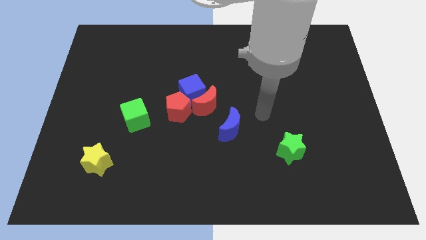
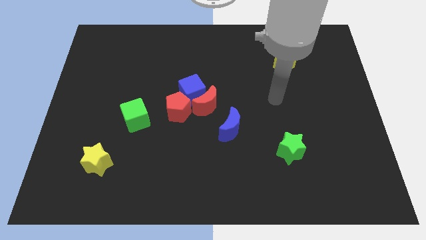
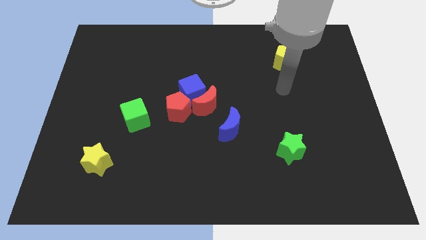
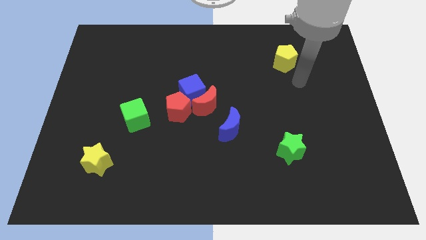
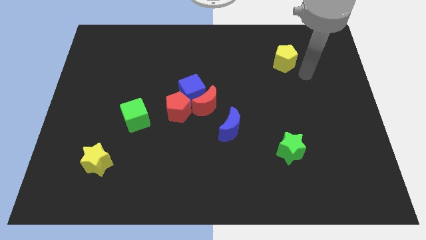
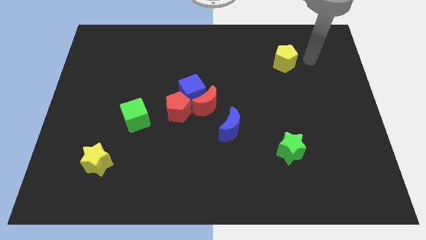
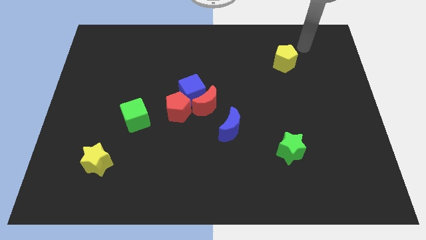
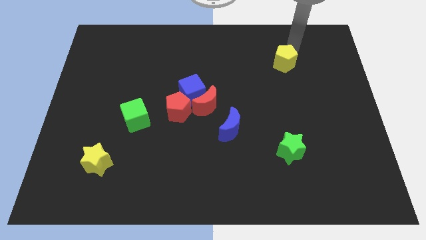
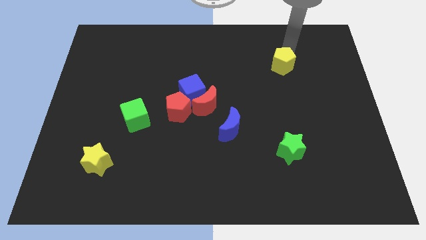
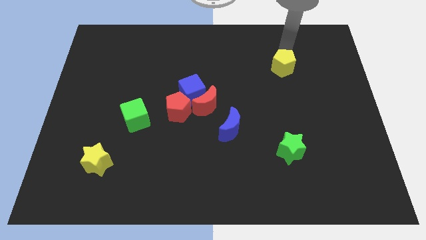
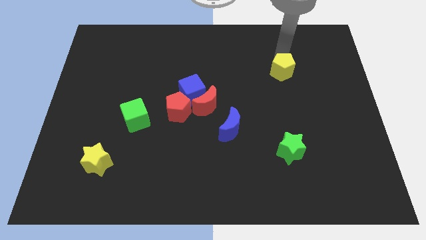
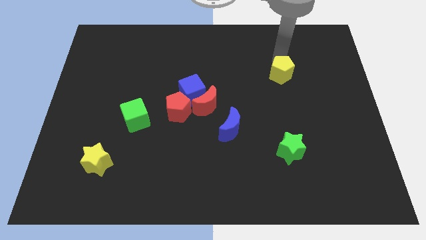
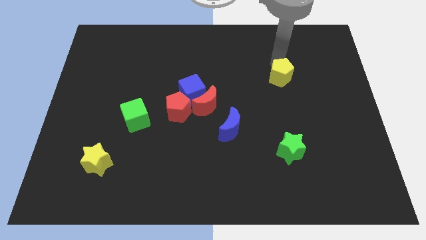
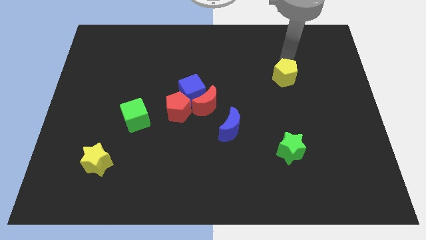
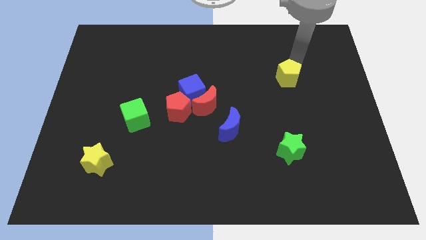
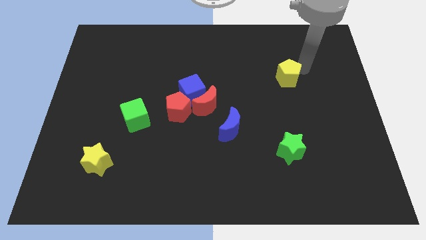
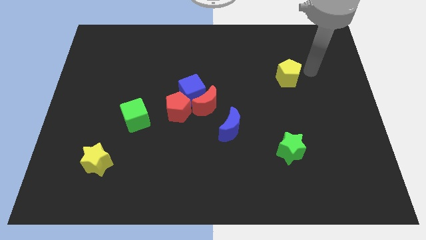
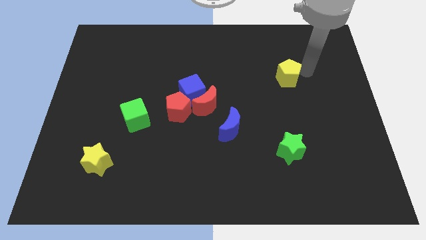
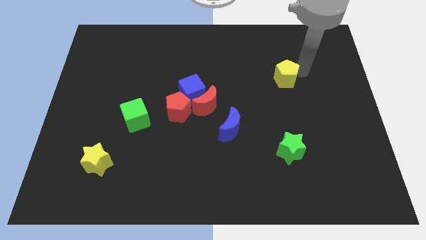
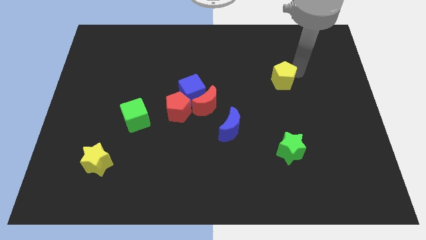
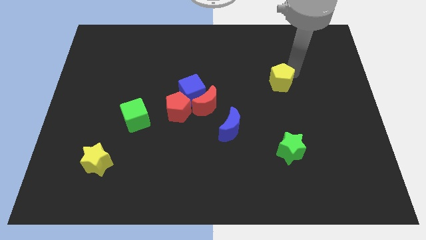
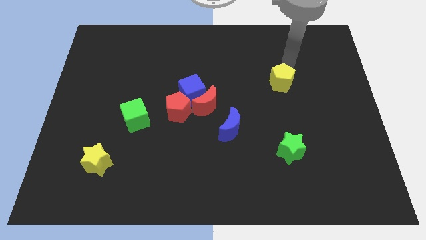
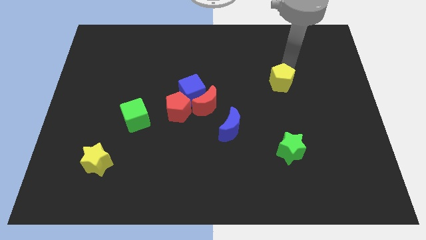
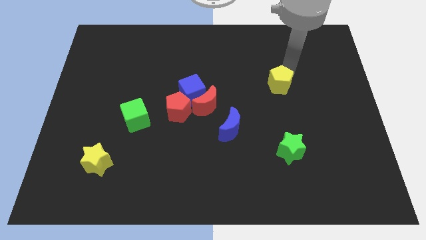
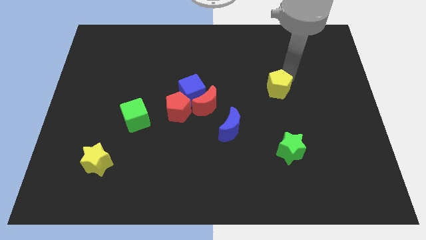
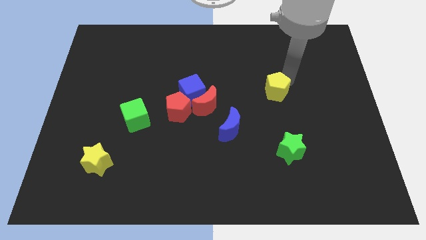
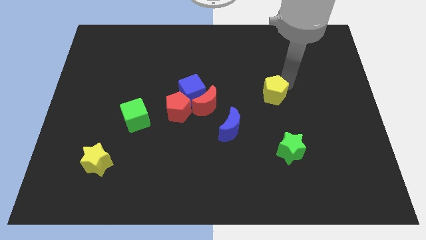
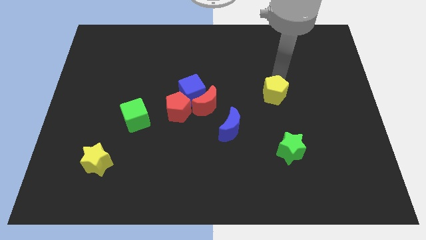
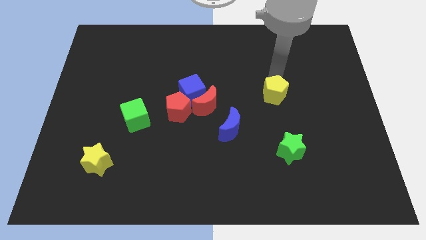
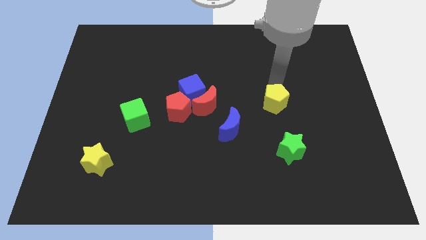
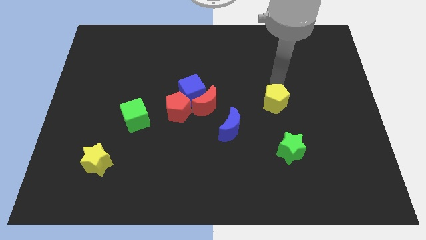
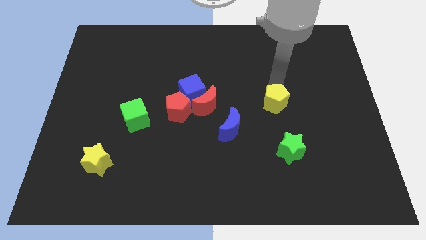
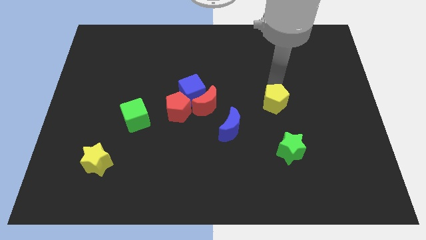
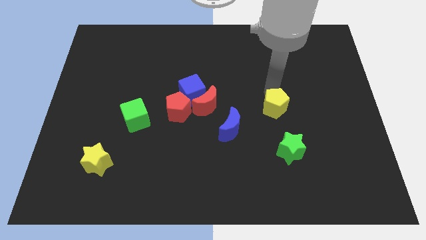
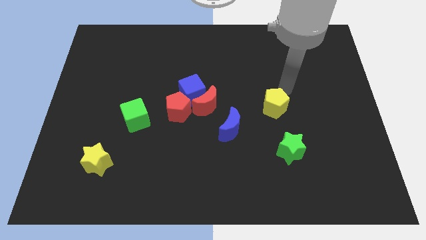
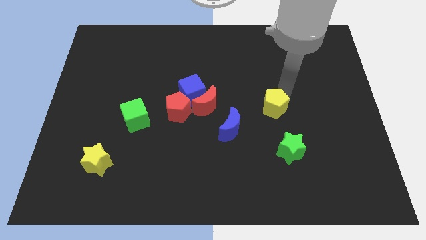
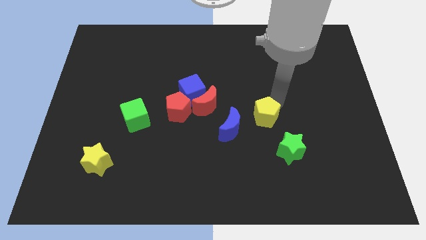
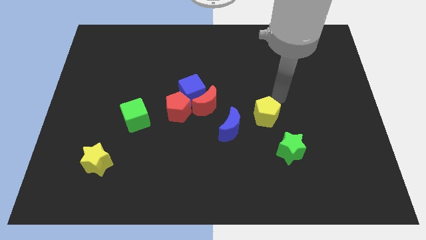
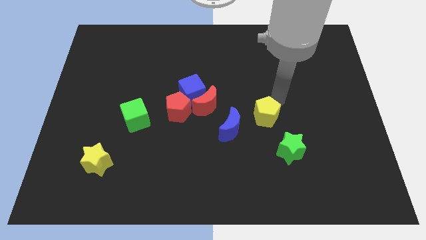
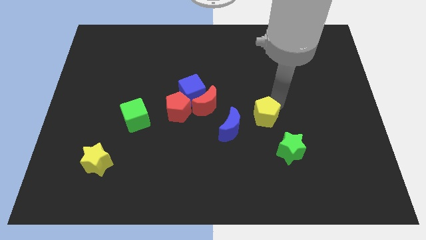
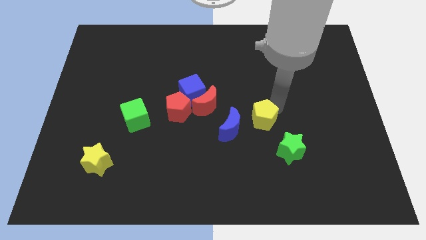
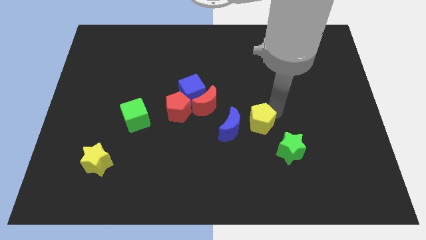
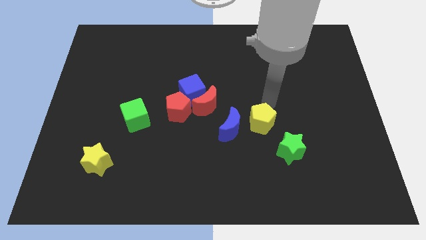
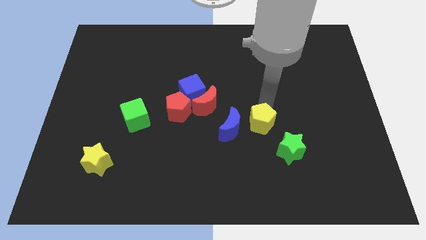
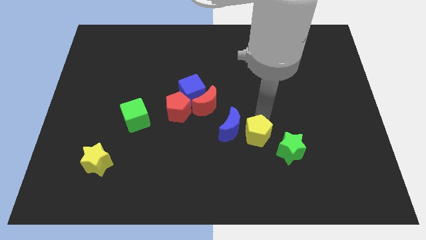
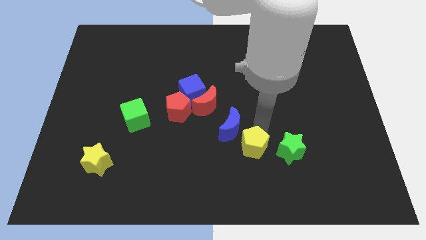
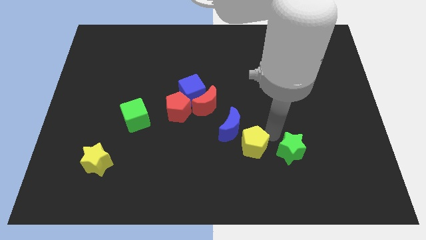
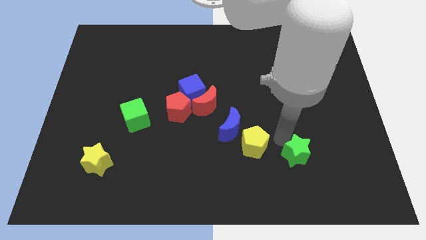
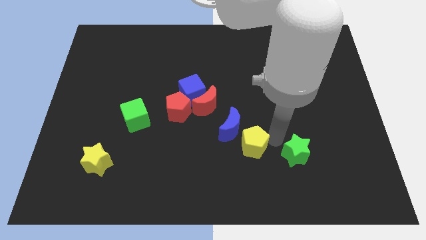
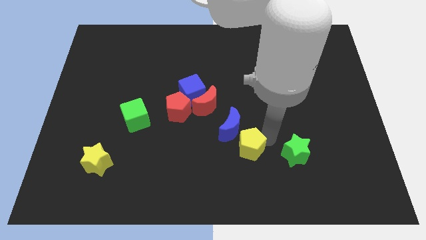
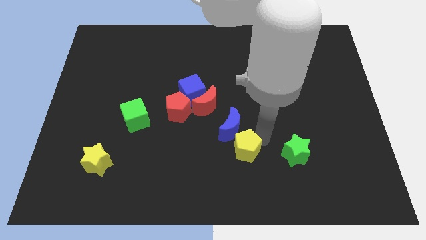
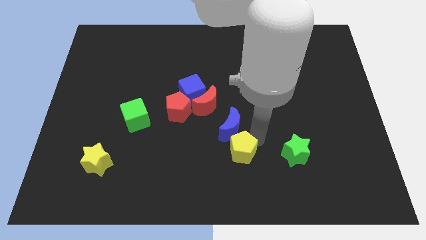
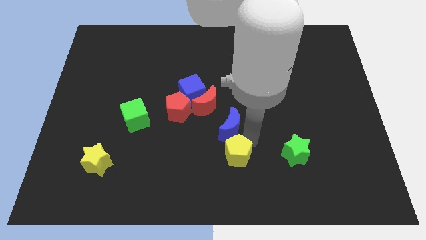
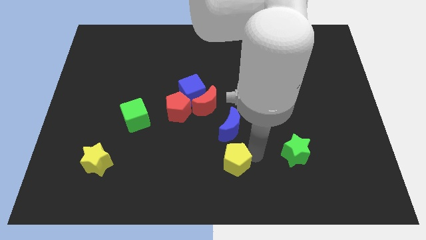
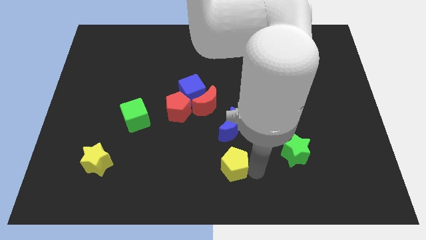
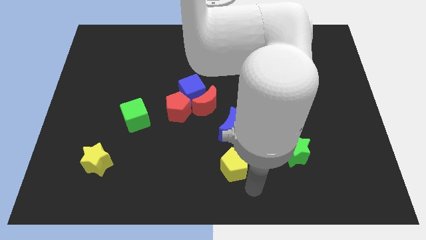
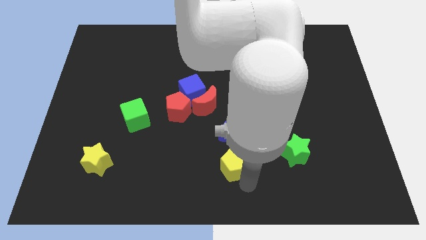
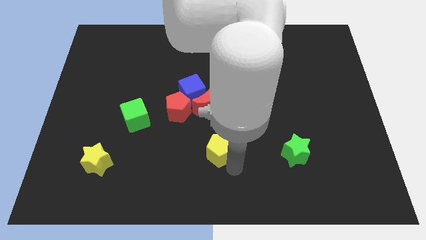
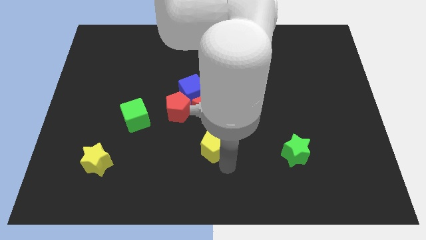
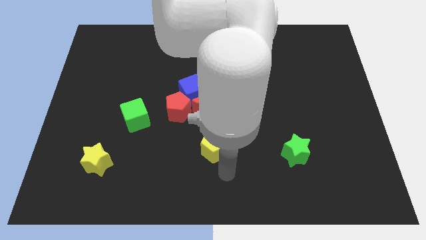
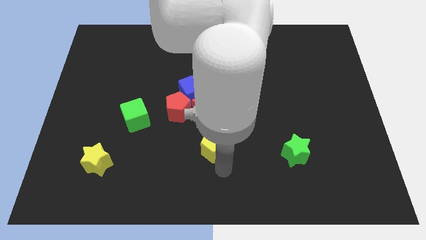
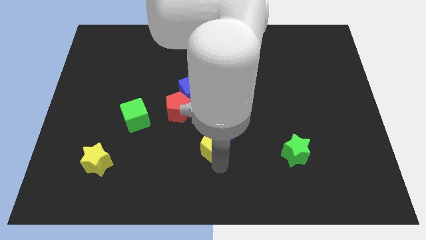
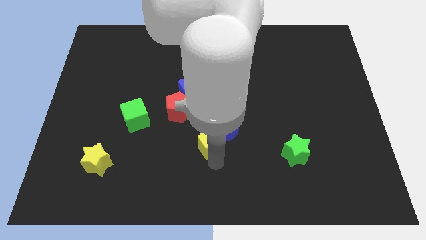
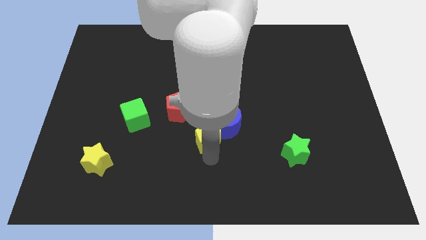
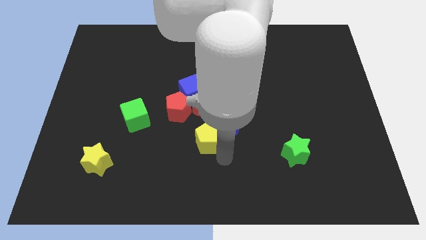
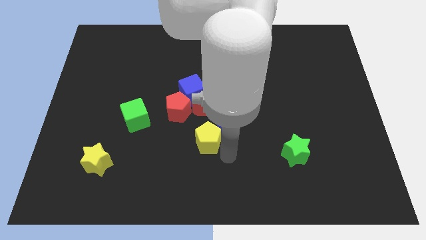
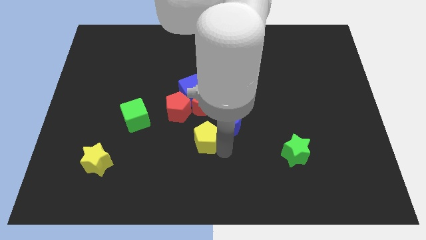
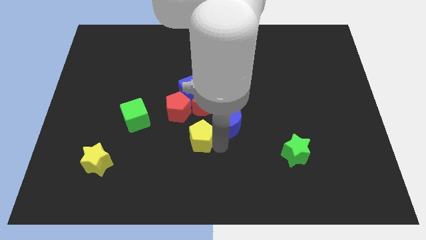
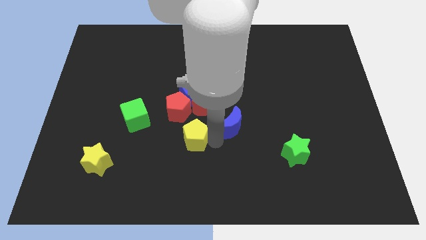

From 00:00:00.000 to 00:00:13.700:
put the yellow pentagon to the bottom left side of the red moon
